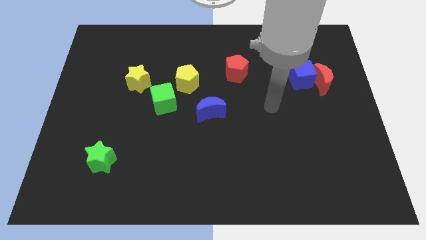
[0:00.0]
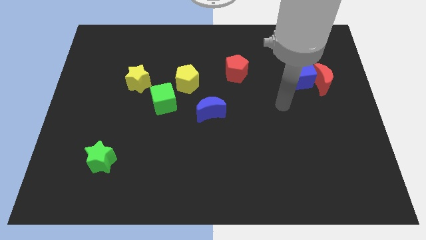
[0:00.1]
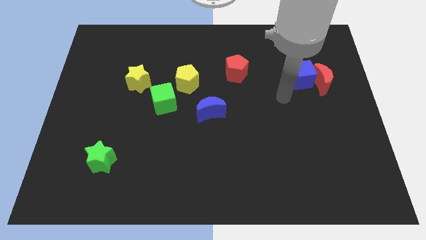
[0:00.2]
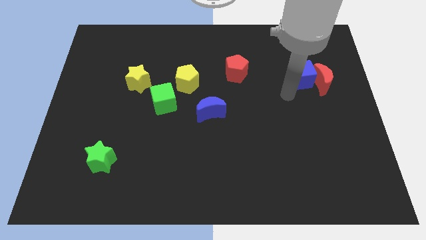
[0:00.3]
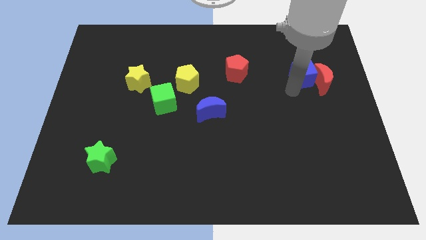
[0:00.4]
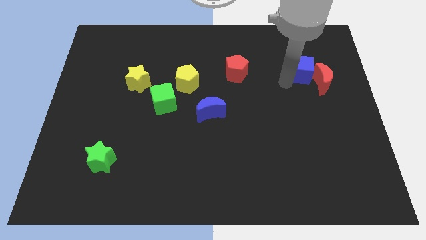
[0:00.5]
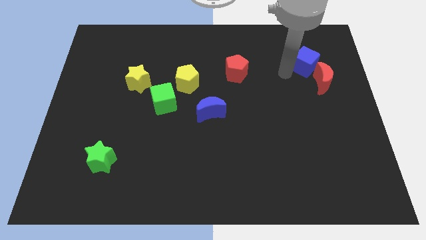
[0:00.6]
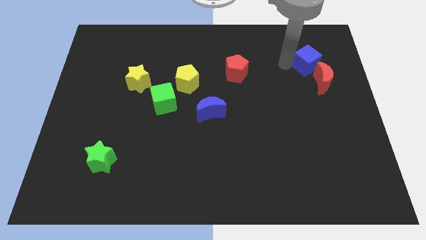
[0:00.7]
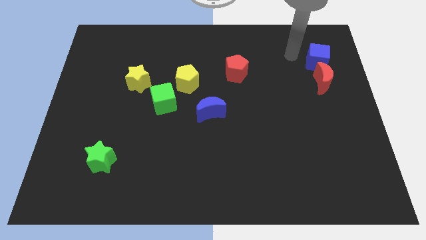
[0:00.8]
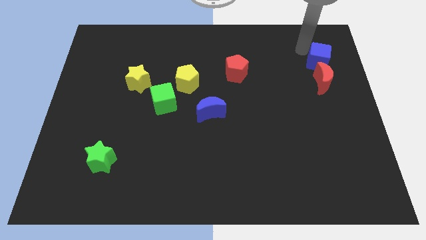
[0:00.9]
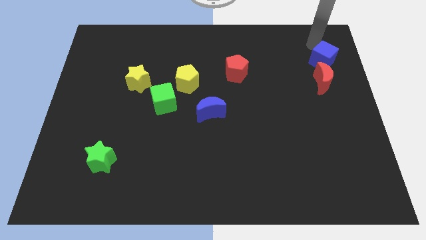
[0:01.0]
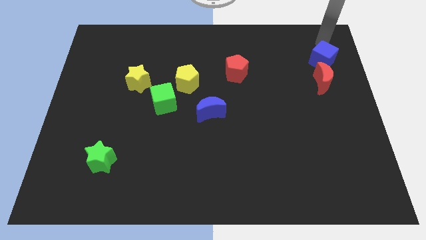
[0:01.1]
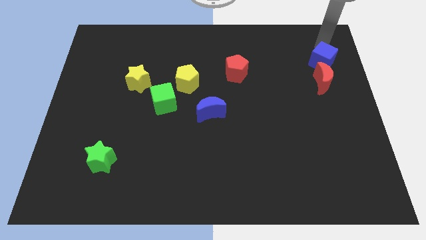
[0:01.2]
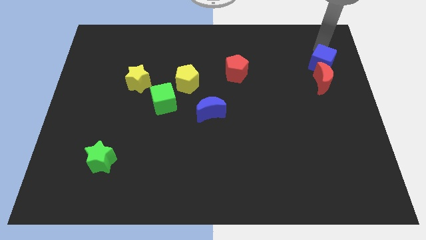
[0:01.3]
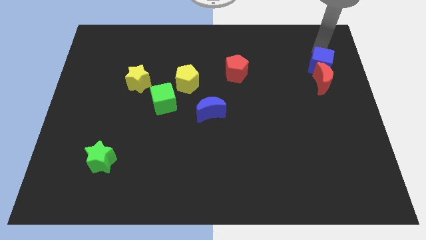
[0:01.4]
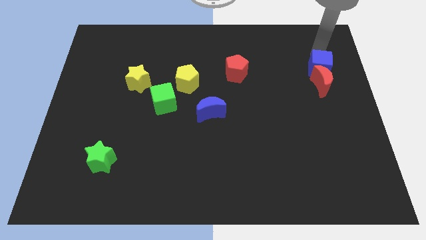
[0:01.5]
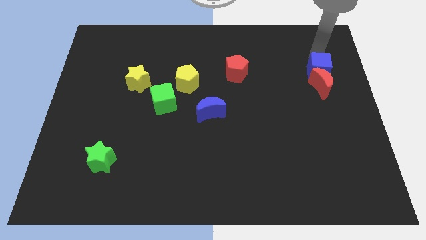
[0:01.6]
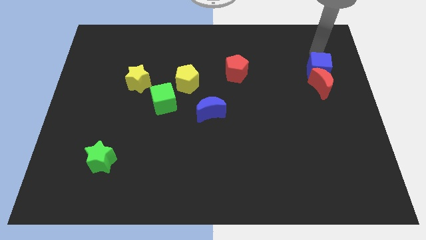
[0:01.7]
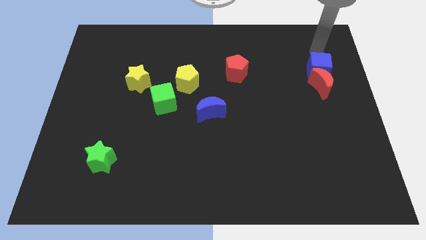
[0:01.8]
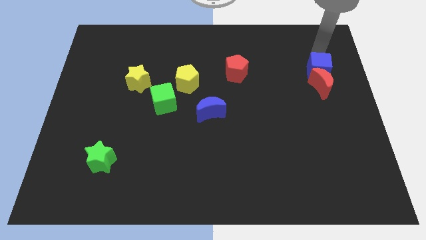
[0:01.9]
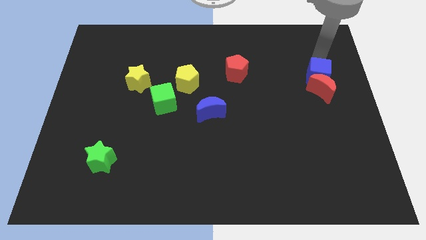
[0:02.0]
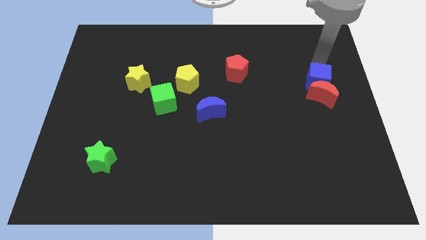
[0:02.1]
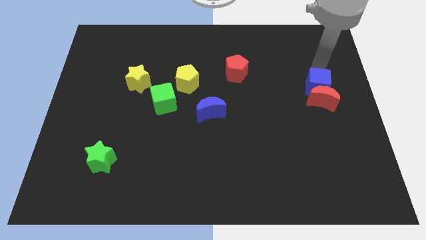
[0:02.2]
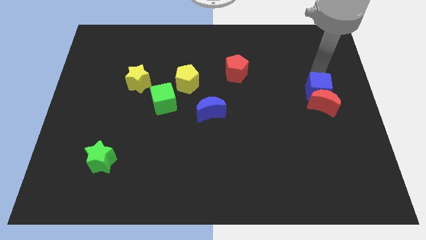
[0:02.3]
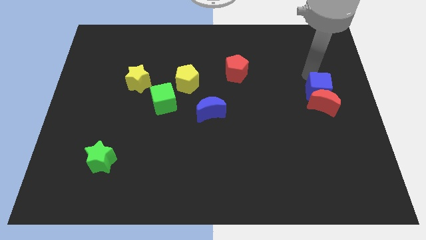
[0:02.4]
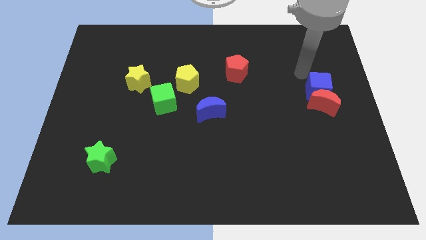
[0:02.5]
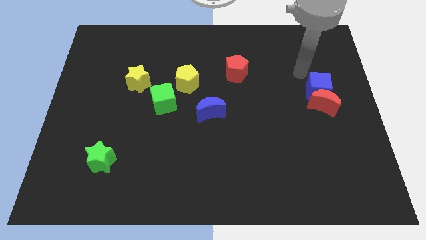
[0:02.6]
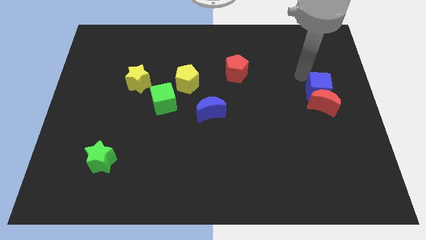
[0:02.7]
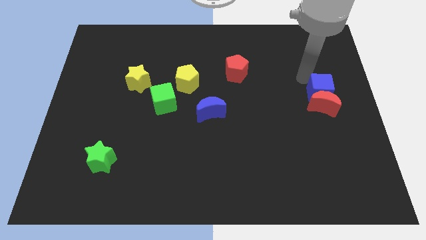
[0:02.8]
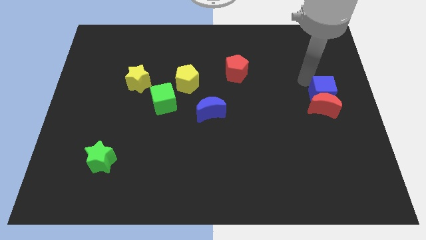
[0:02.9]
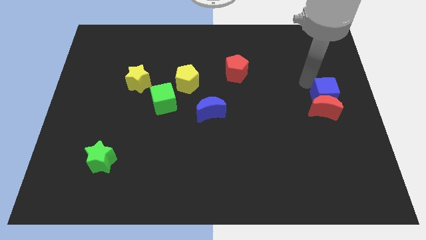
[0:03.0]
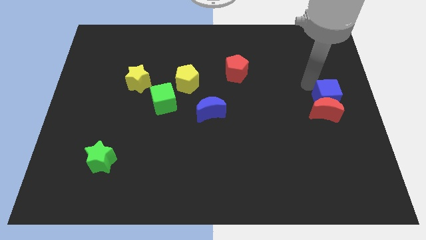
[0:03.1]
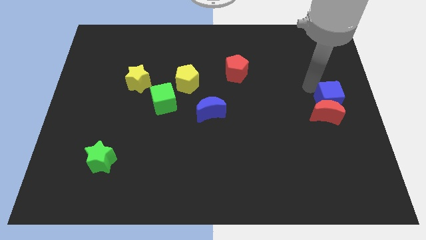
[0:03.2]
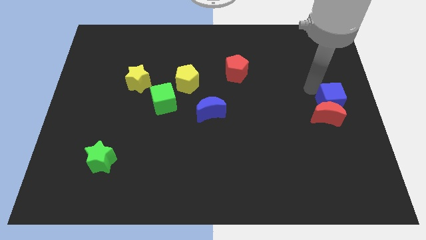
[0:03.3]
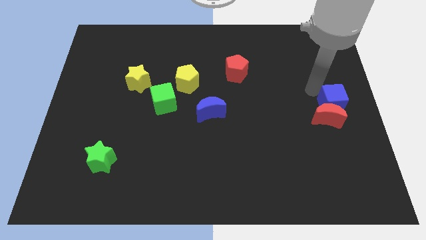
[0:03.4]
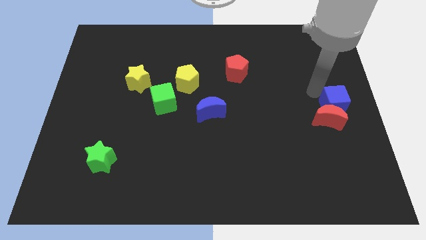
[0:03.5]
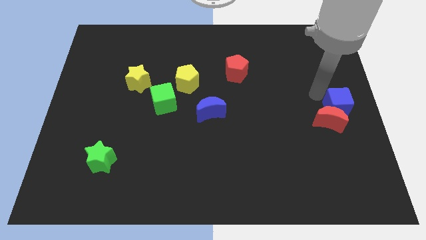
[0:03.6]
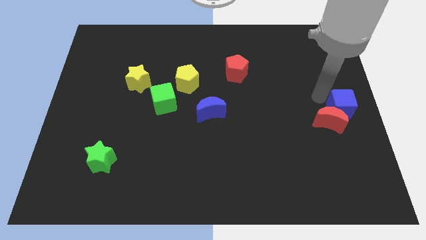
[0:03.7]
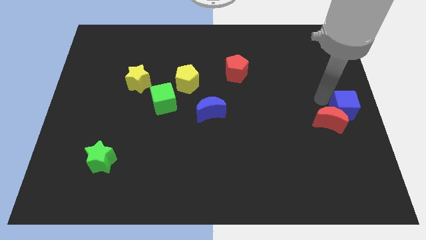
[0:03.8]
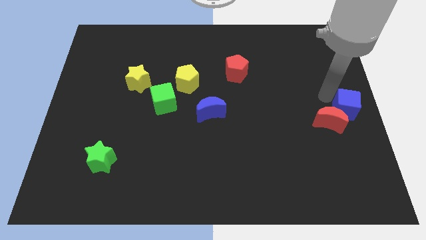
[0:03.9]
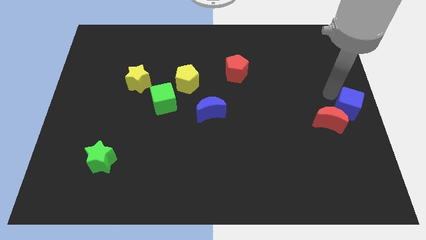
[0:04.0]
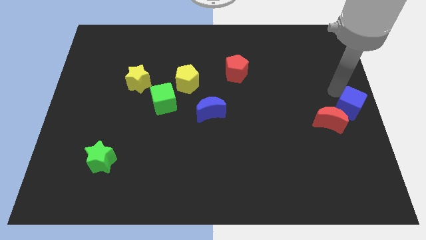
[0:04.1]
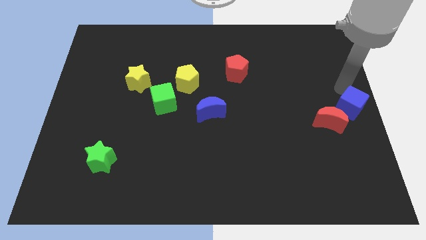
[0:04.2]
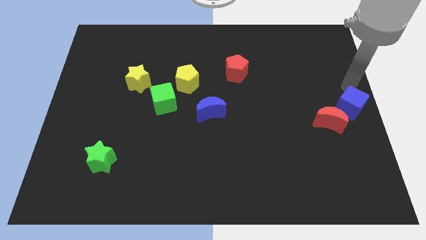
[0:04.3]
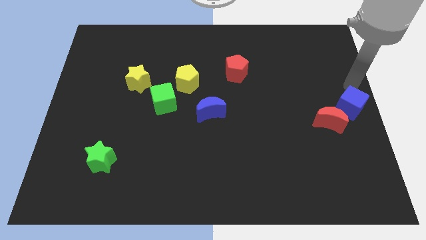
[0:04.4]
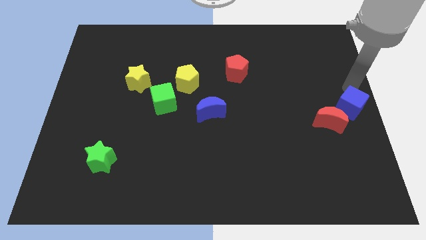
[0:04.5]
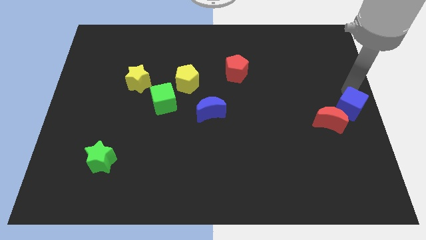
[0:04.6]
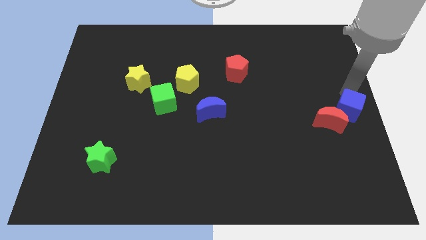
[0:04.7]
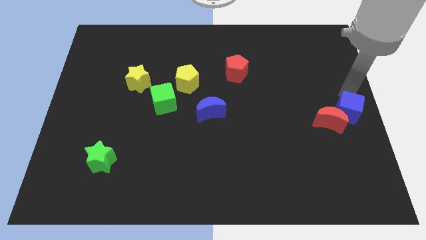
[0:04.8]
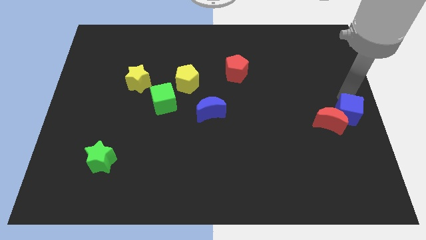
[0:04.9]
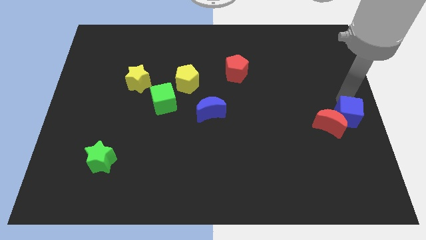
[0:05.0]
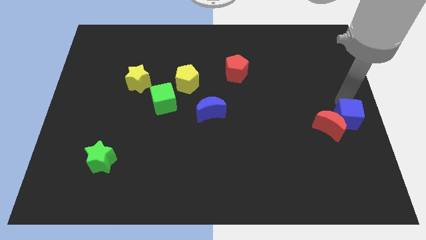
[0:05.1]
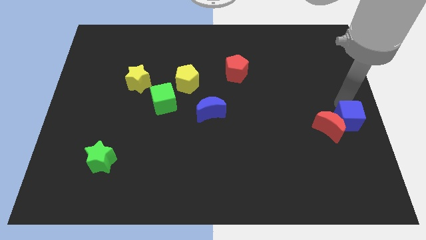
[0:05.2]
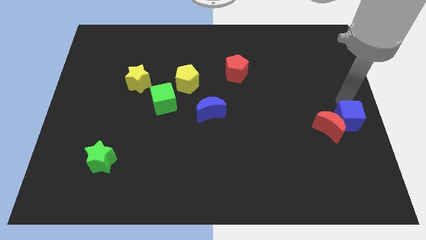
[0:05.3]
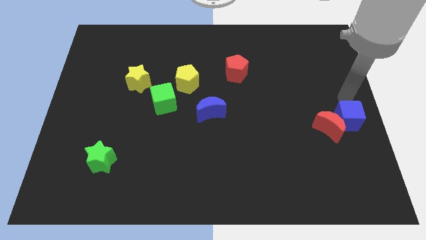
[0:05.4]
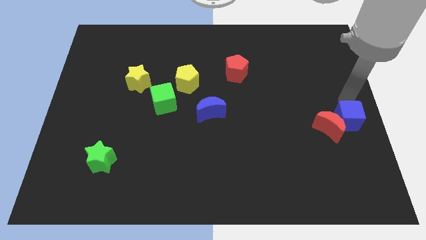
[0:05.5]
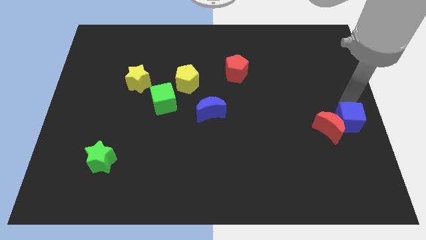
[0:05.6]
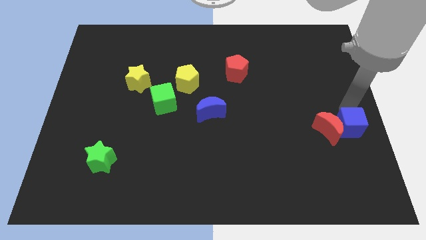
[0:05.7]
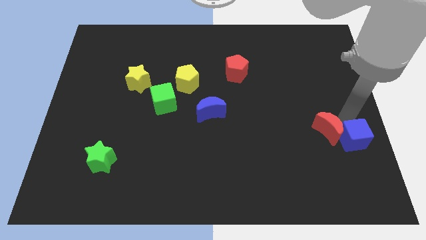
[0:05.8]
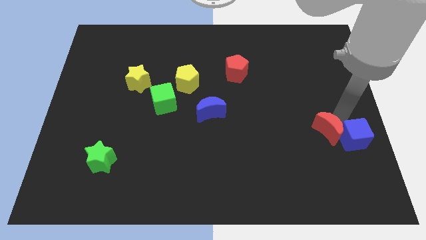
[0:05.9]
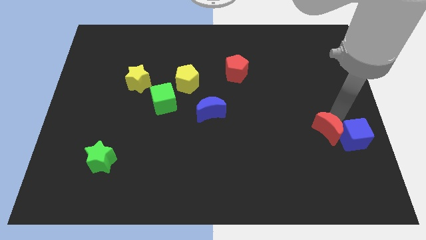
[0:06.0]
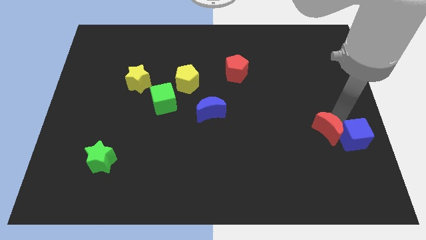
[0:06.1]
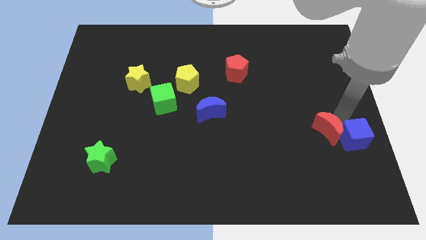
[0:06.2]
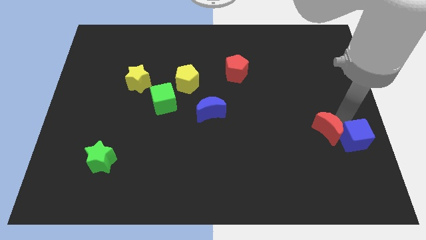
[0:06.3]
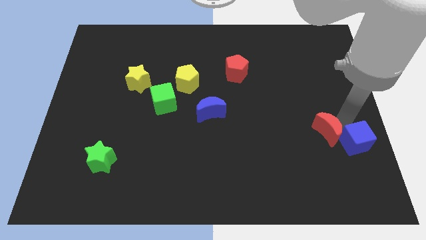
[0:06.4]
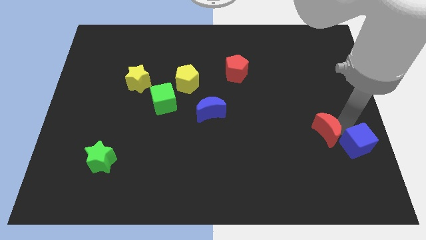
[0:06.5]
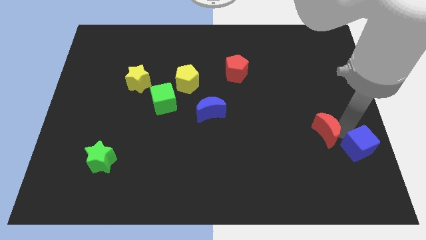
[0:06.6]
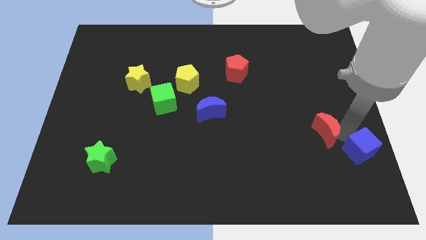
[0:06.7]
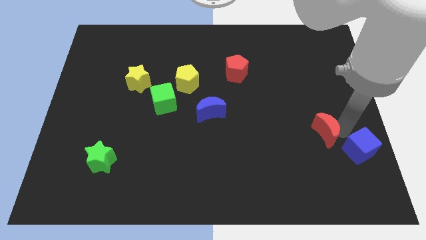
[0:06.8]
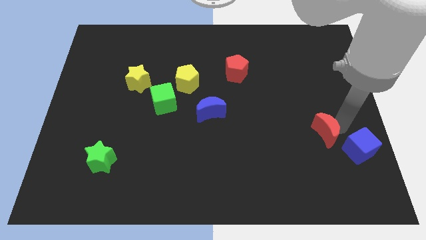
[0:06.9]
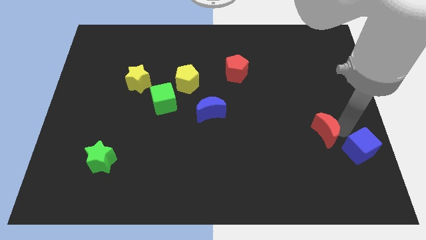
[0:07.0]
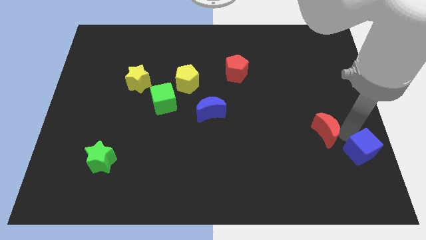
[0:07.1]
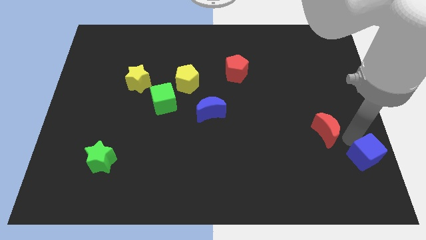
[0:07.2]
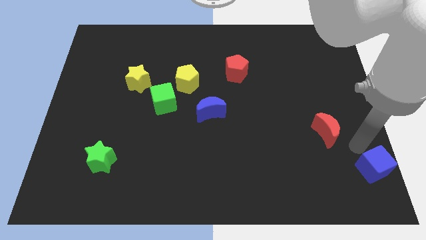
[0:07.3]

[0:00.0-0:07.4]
push the blue cube to the lower right corner
